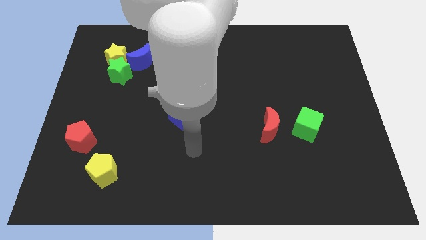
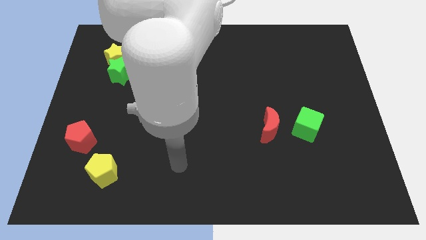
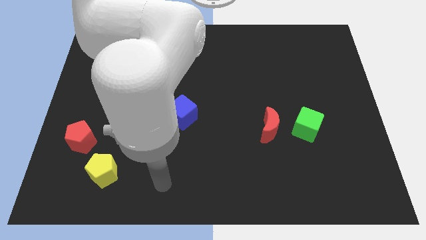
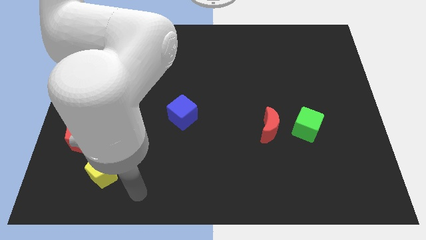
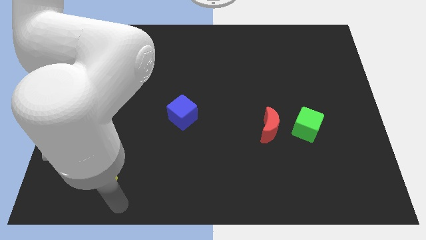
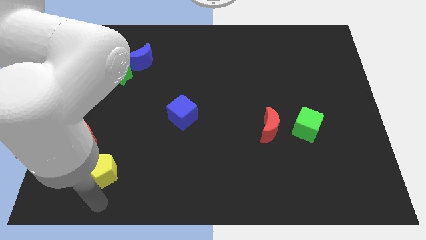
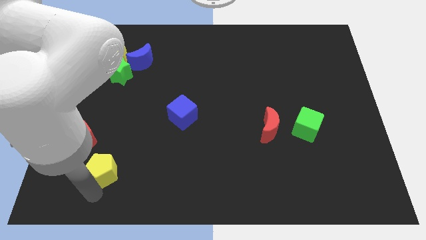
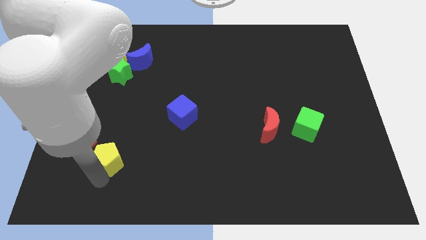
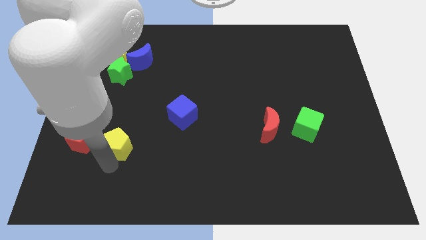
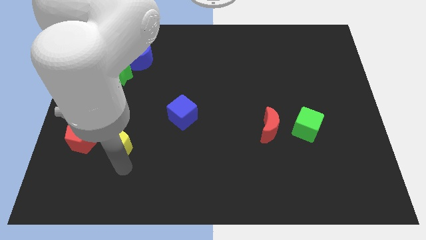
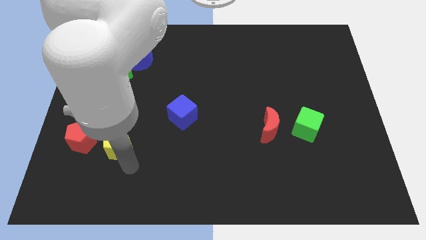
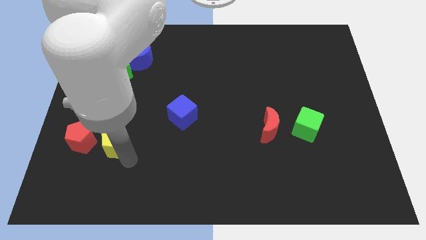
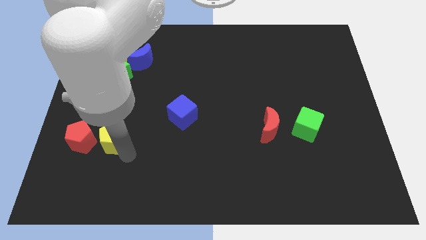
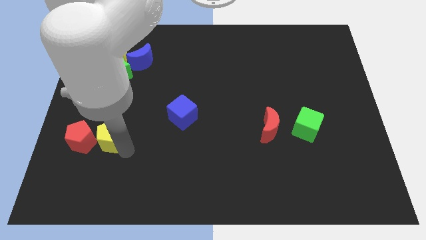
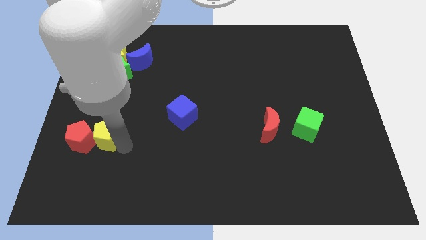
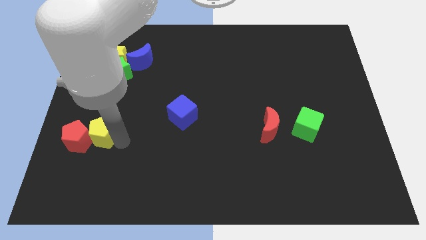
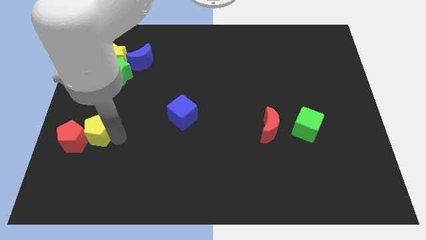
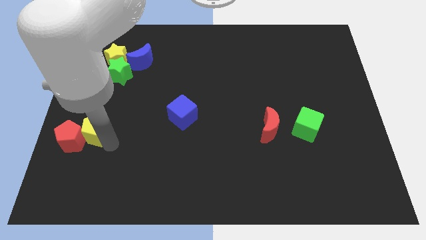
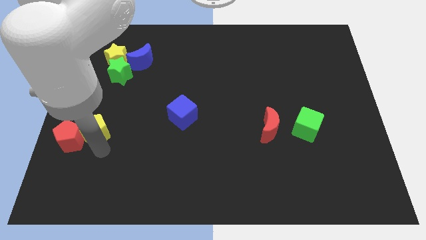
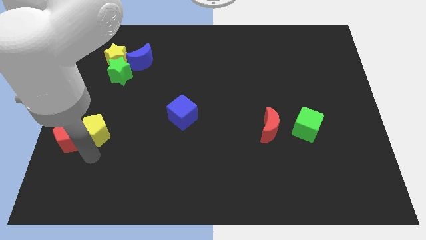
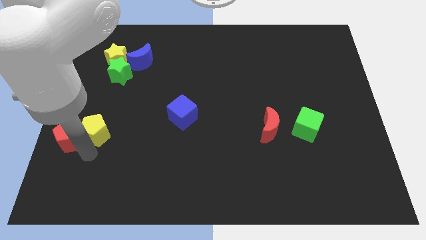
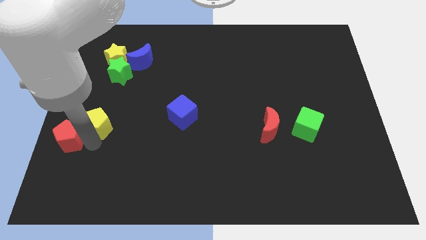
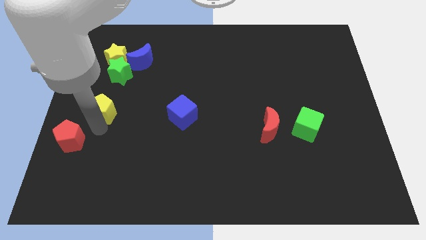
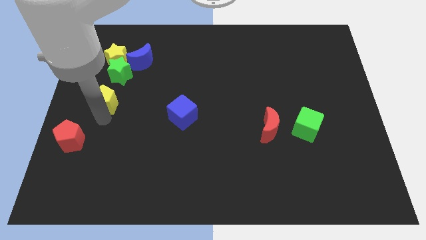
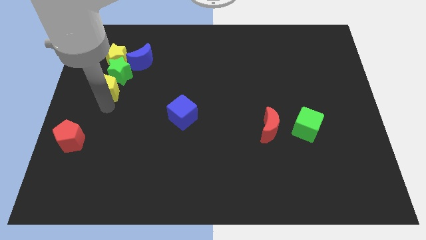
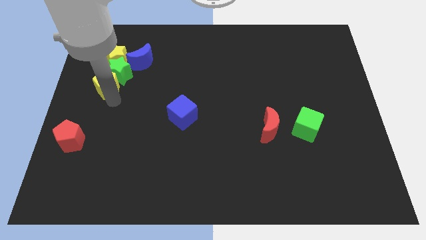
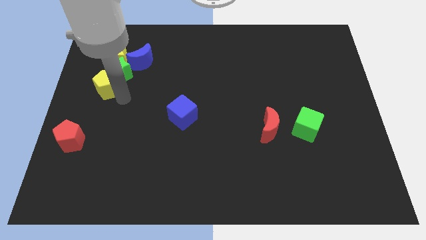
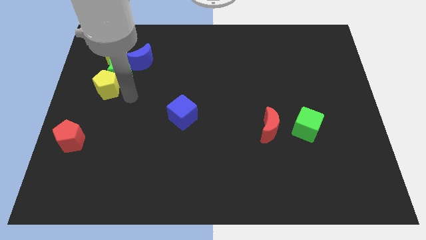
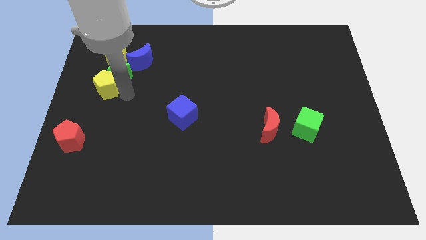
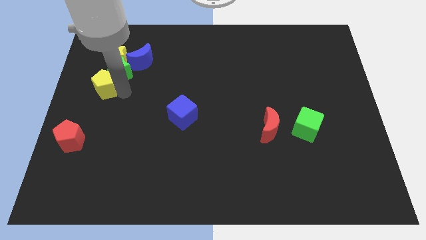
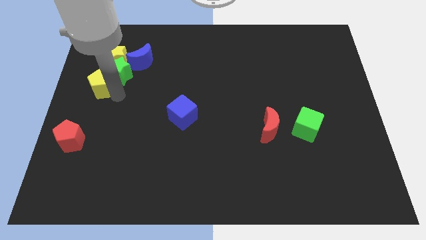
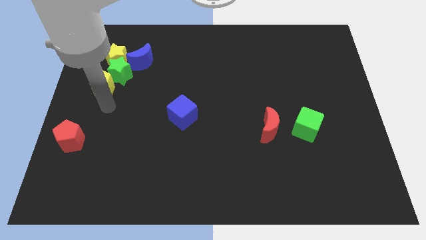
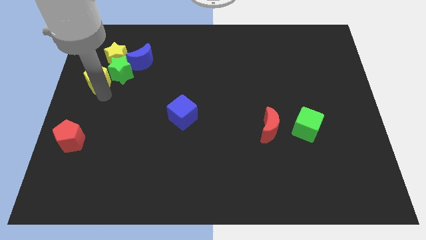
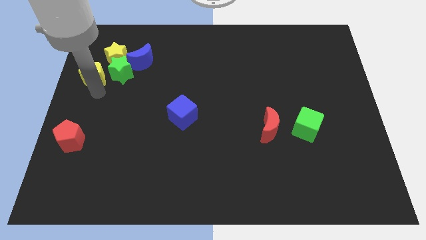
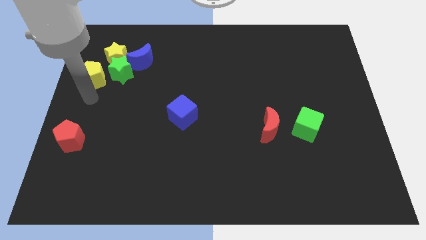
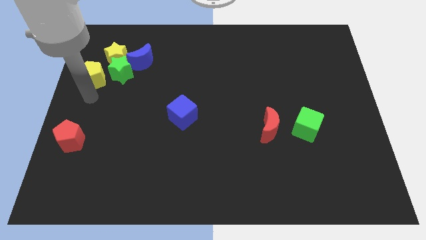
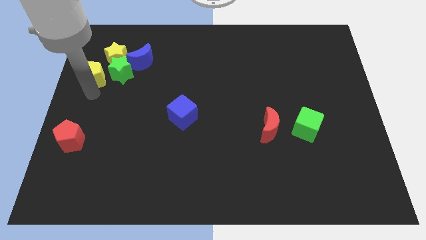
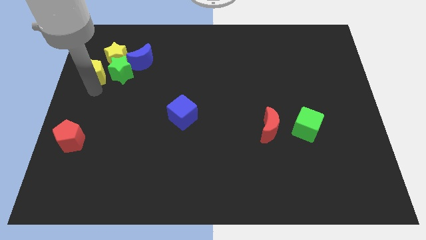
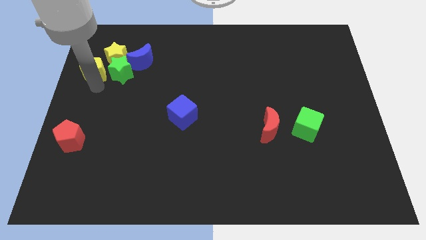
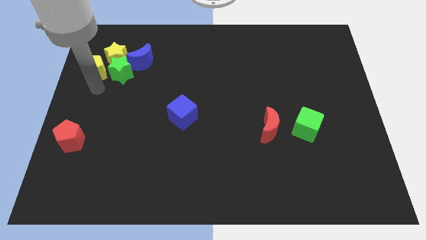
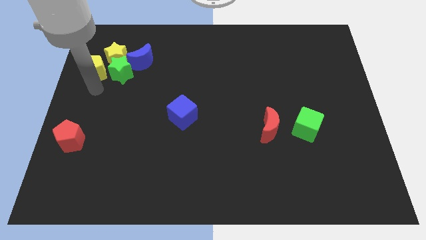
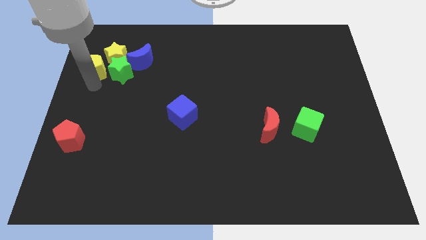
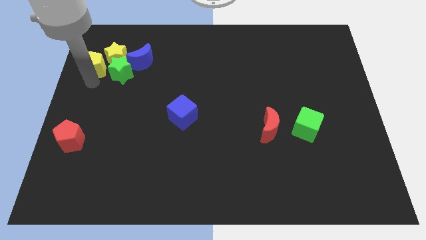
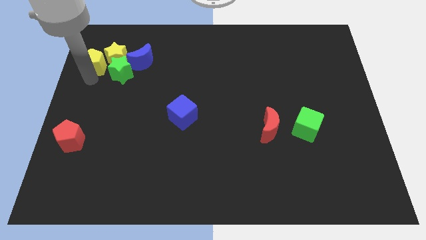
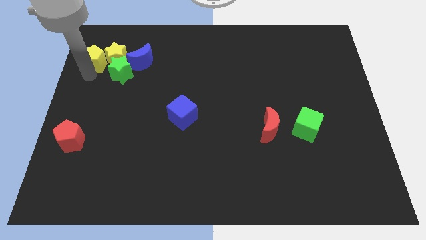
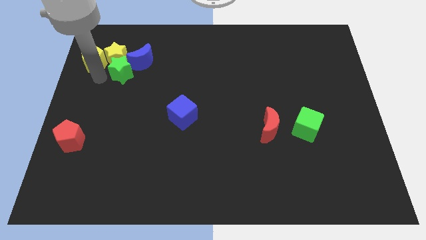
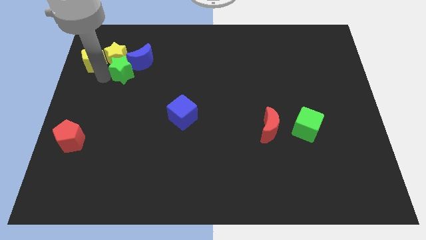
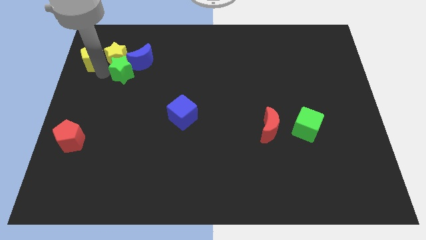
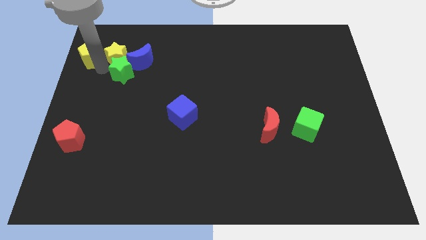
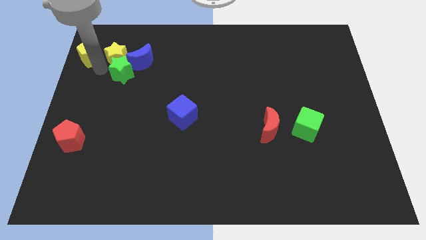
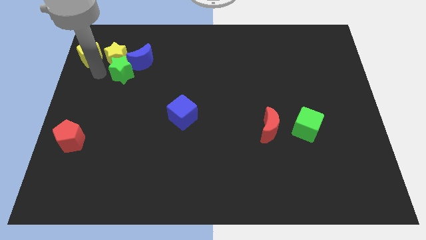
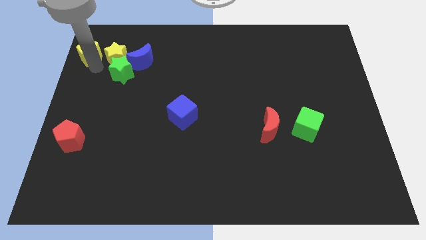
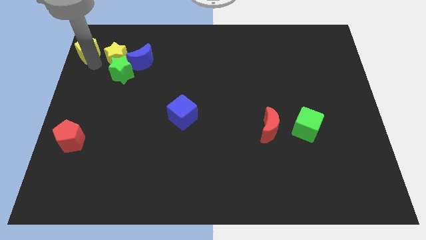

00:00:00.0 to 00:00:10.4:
push the yellow pentagon to the upper left corner
